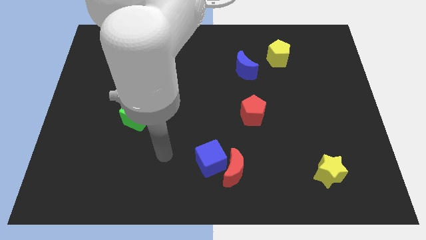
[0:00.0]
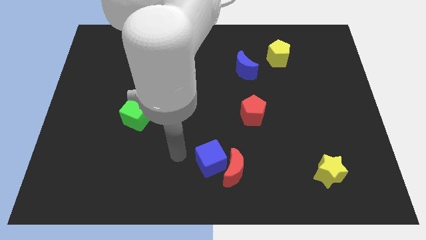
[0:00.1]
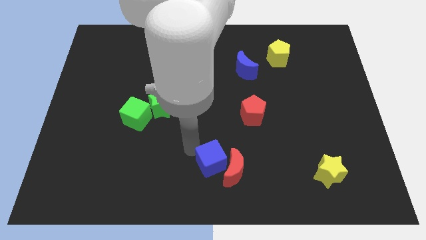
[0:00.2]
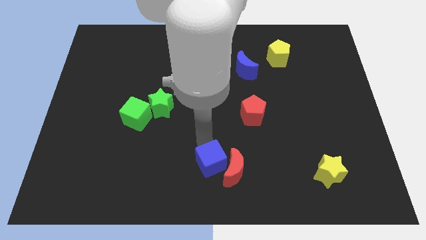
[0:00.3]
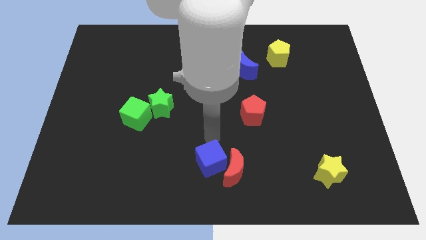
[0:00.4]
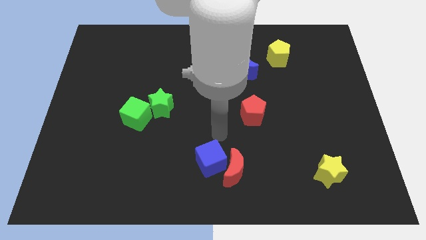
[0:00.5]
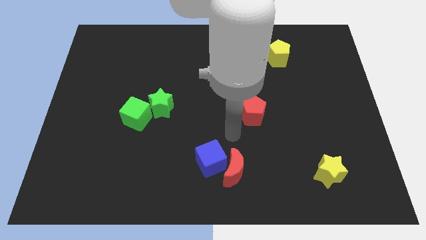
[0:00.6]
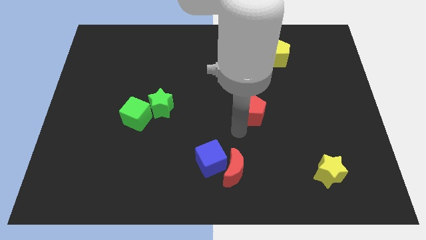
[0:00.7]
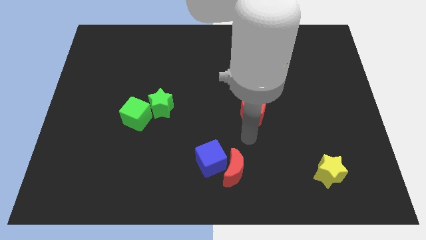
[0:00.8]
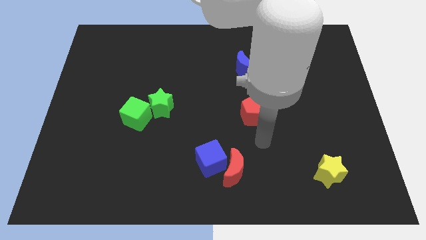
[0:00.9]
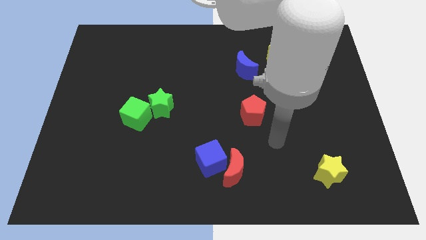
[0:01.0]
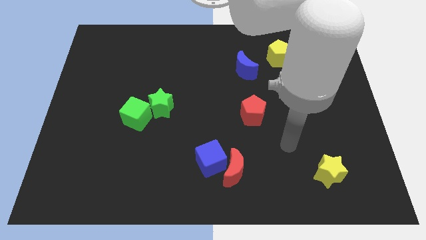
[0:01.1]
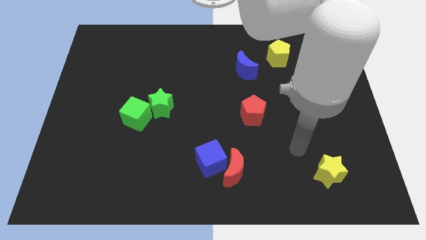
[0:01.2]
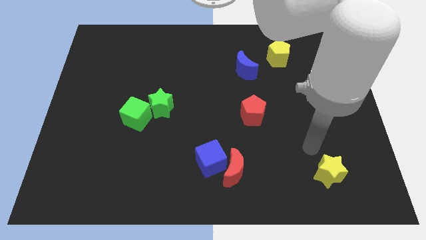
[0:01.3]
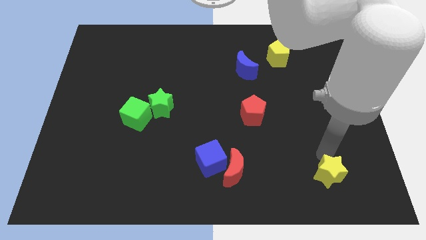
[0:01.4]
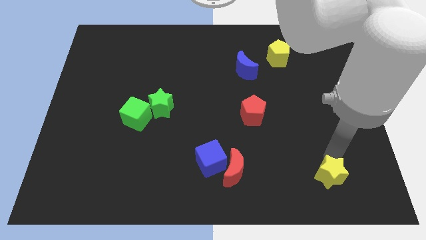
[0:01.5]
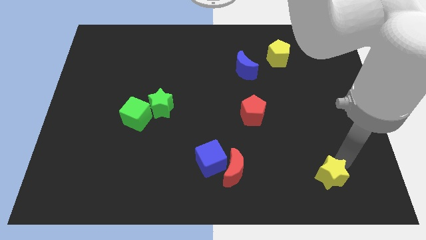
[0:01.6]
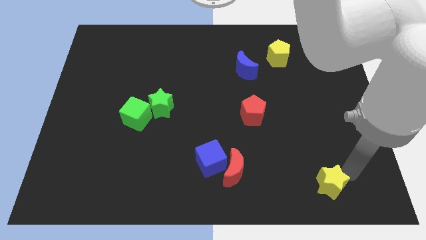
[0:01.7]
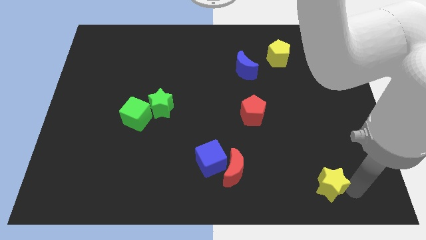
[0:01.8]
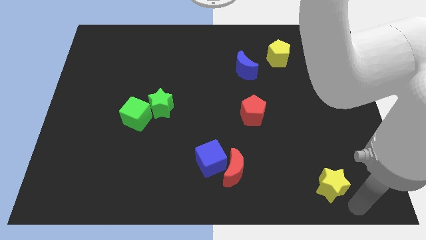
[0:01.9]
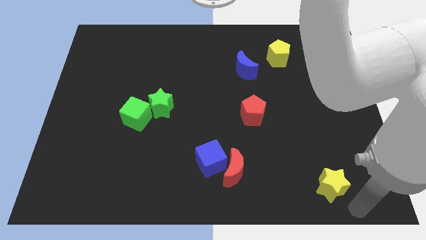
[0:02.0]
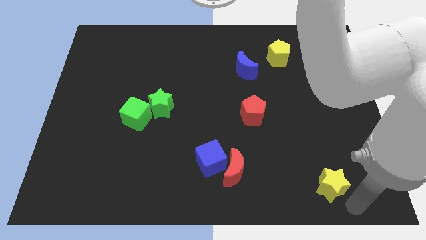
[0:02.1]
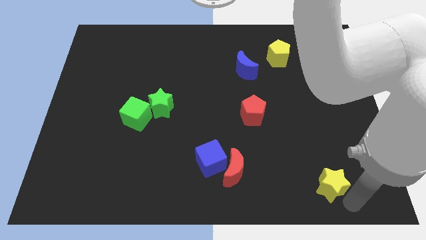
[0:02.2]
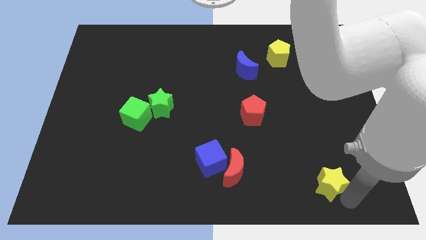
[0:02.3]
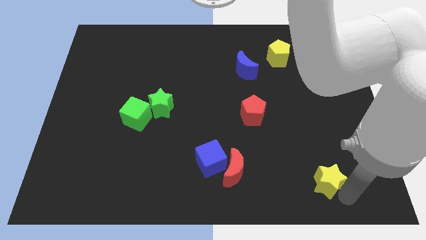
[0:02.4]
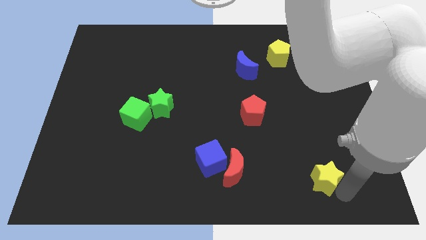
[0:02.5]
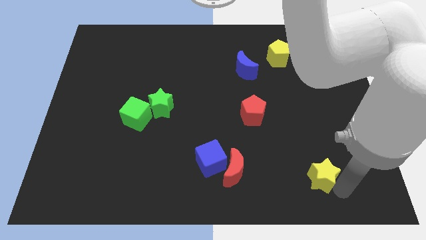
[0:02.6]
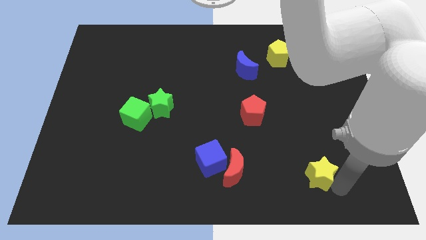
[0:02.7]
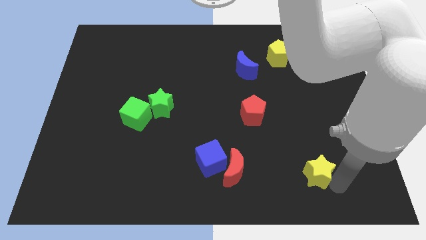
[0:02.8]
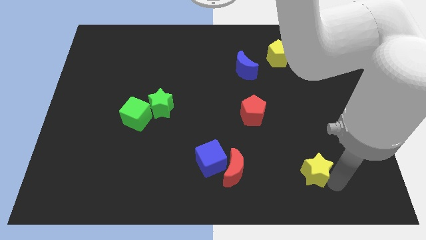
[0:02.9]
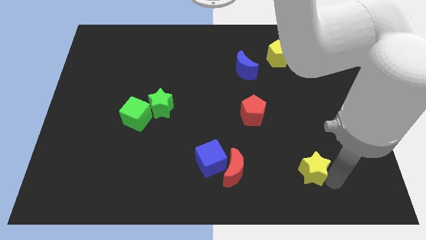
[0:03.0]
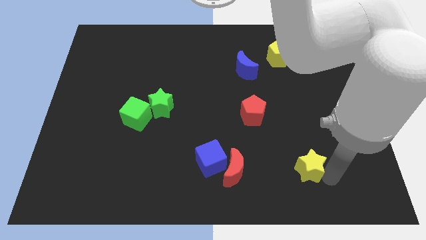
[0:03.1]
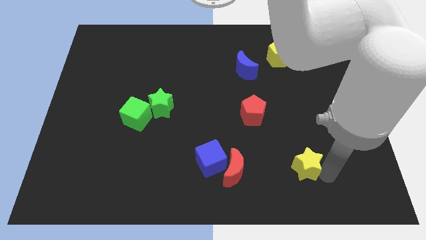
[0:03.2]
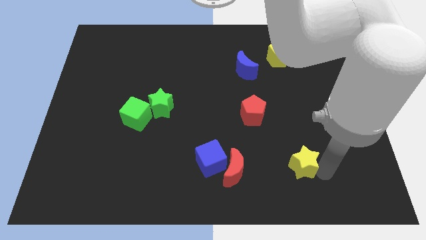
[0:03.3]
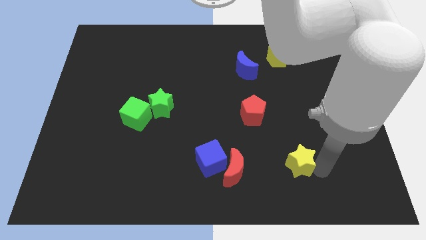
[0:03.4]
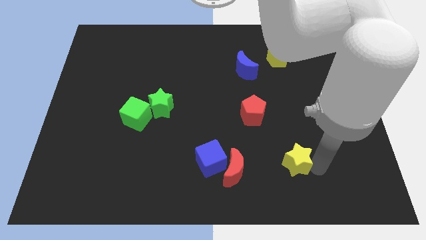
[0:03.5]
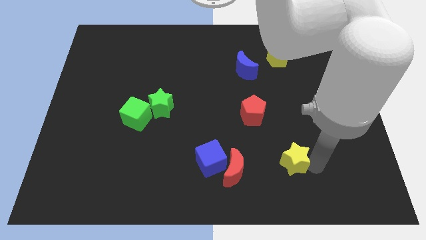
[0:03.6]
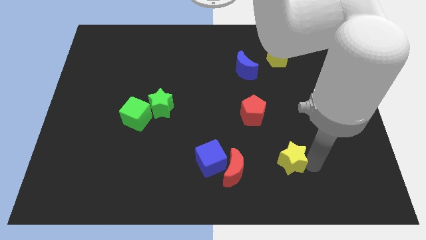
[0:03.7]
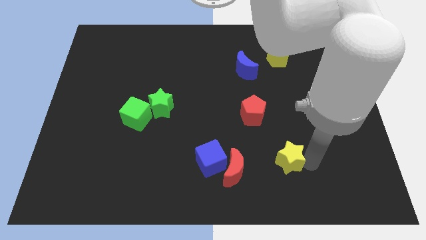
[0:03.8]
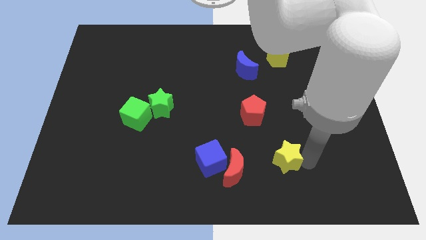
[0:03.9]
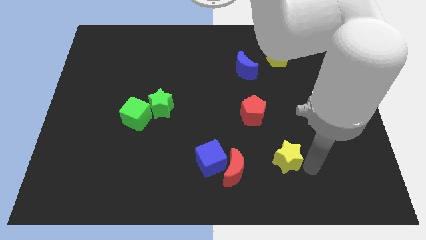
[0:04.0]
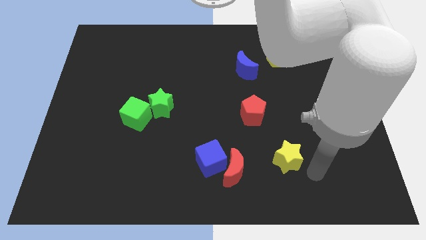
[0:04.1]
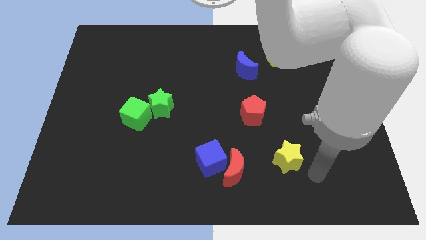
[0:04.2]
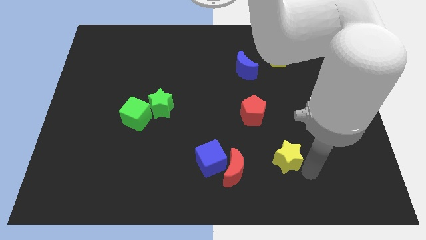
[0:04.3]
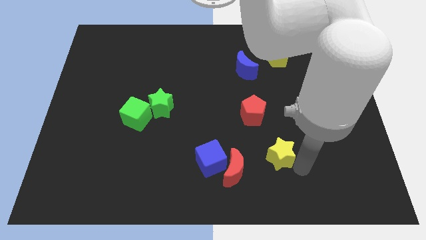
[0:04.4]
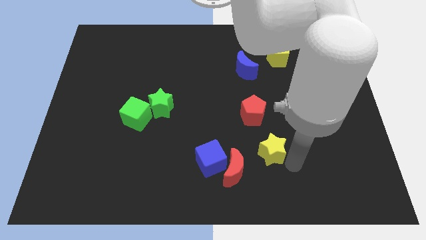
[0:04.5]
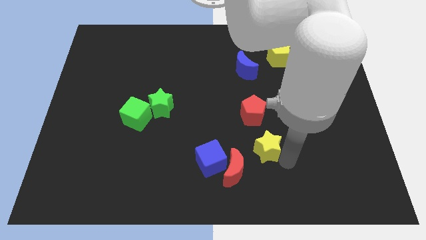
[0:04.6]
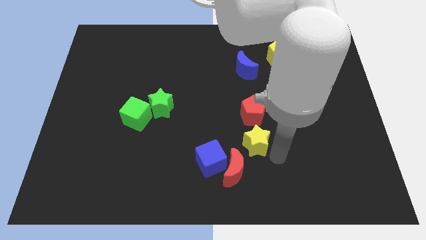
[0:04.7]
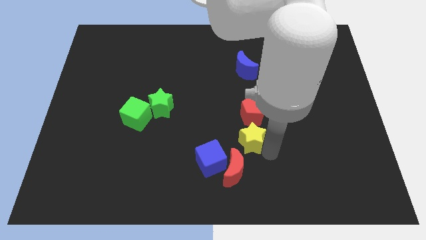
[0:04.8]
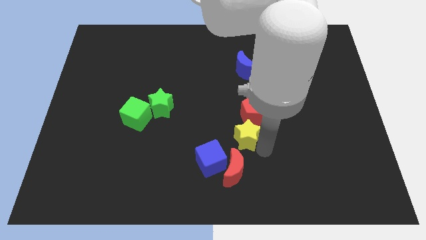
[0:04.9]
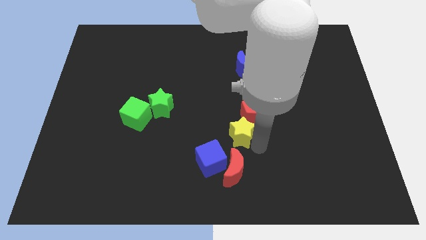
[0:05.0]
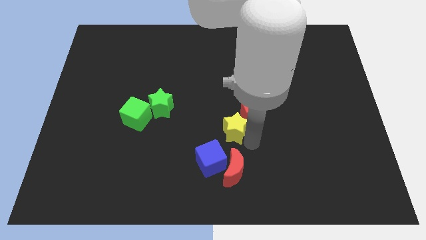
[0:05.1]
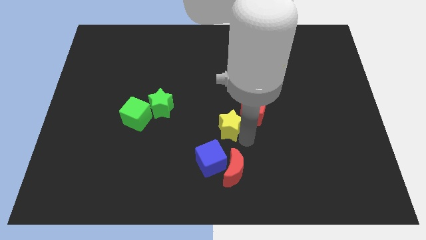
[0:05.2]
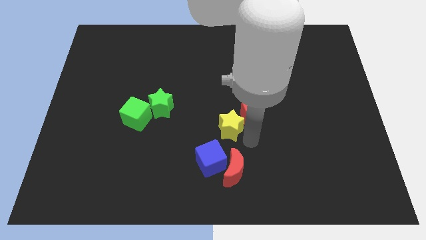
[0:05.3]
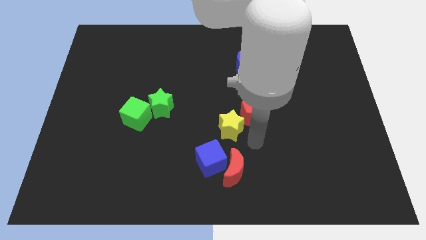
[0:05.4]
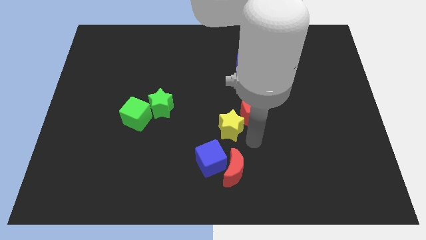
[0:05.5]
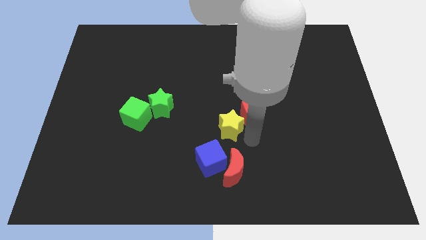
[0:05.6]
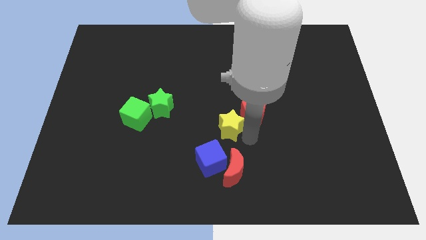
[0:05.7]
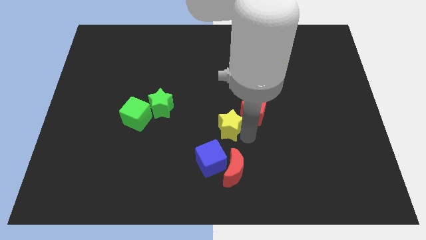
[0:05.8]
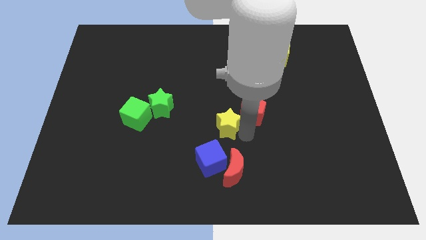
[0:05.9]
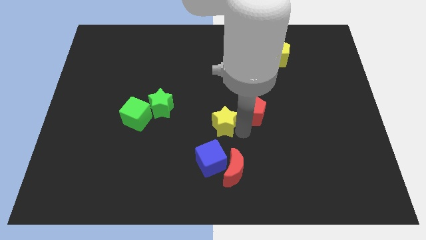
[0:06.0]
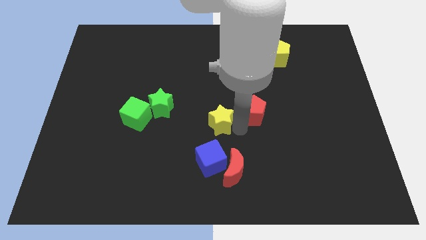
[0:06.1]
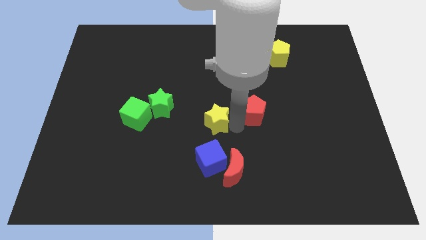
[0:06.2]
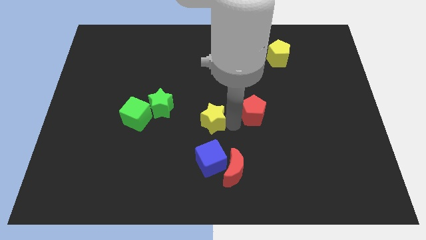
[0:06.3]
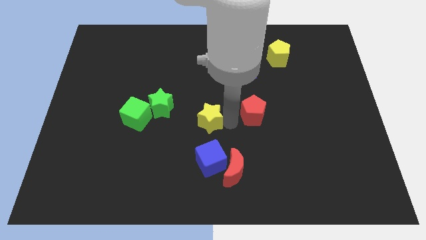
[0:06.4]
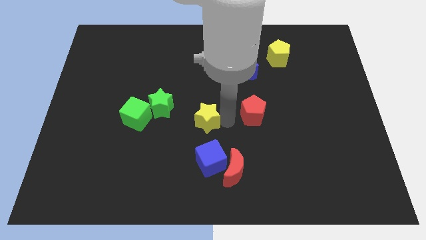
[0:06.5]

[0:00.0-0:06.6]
slide the yellow star to the right of the green cube
